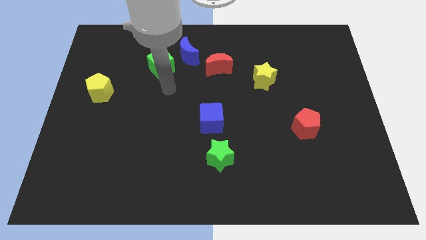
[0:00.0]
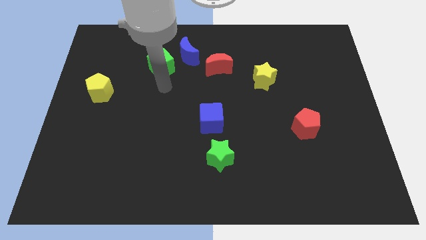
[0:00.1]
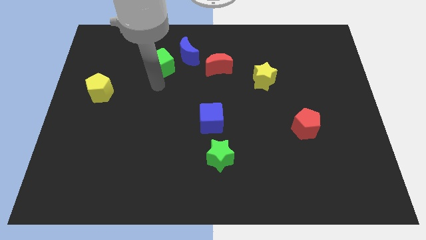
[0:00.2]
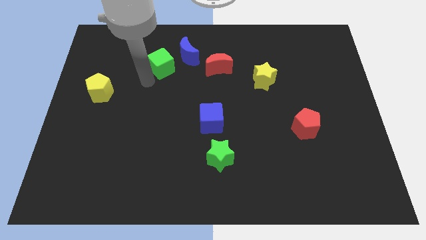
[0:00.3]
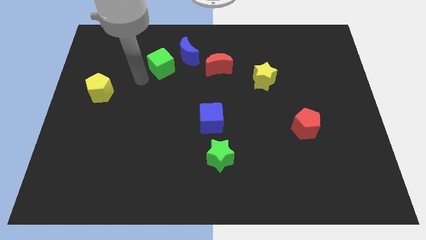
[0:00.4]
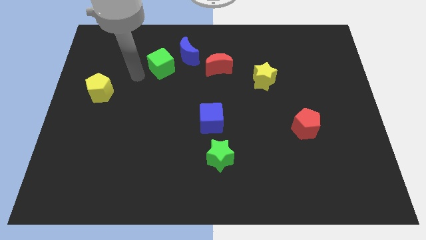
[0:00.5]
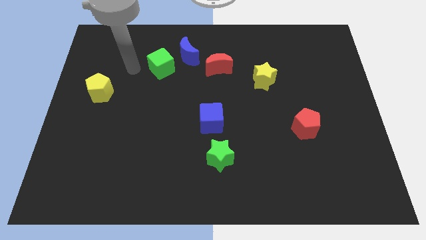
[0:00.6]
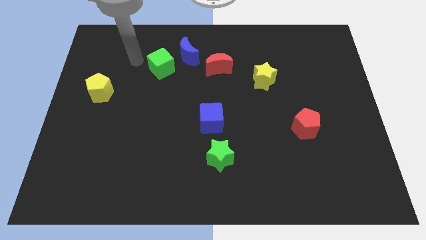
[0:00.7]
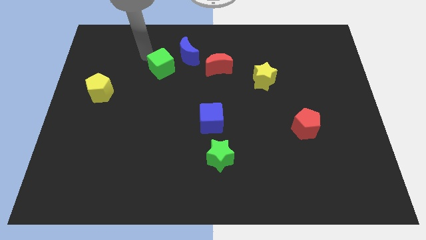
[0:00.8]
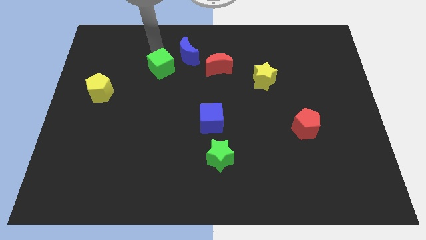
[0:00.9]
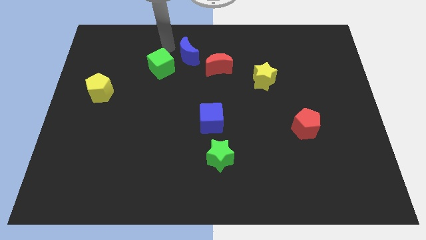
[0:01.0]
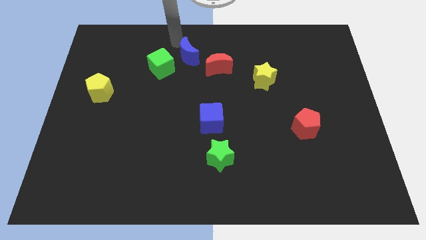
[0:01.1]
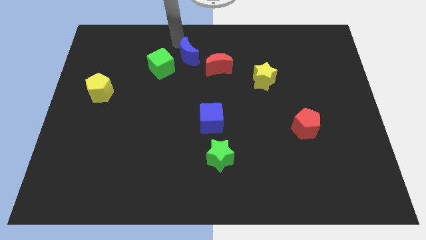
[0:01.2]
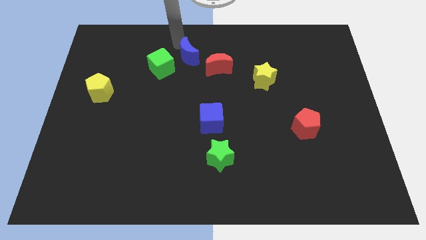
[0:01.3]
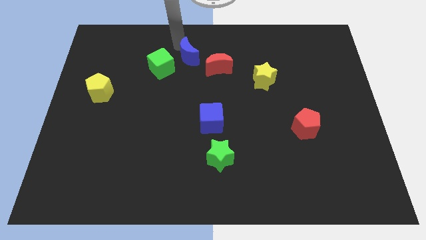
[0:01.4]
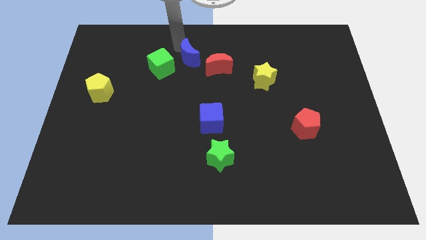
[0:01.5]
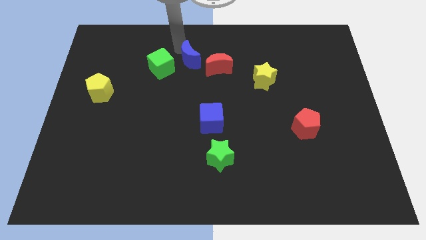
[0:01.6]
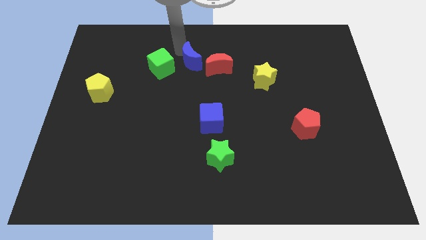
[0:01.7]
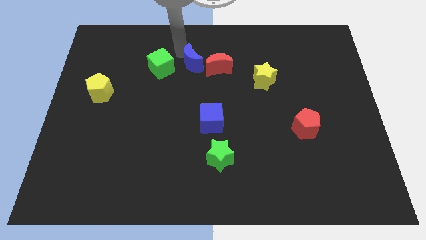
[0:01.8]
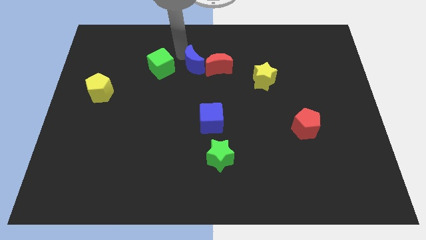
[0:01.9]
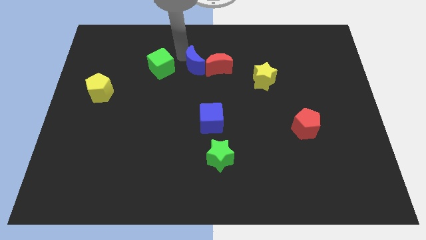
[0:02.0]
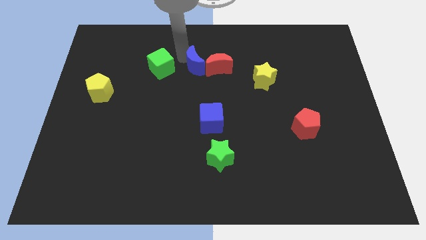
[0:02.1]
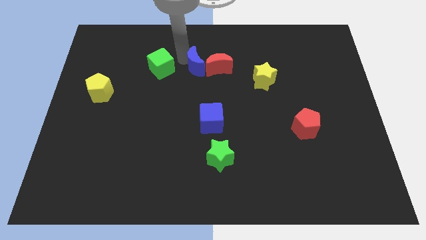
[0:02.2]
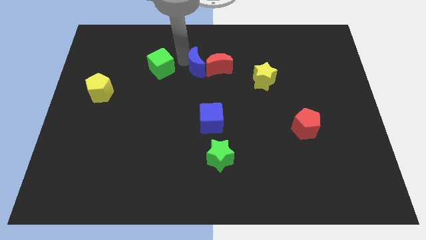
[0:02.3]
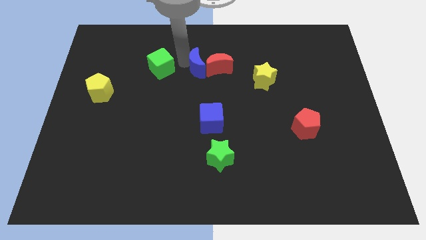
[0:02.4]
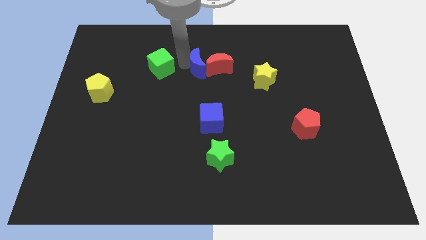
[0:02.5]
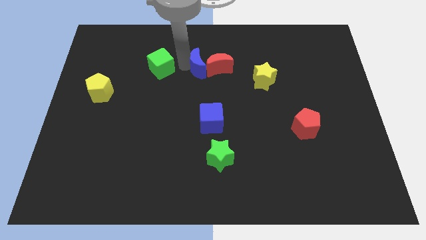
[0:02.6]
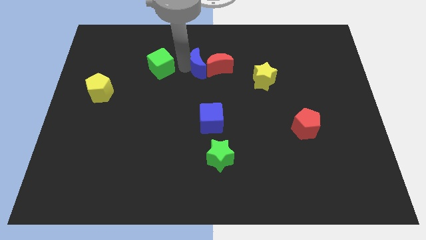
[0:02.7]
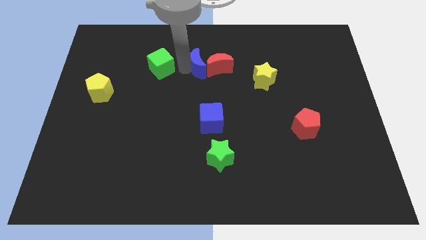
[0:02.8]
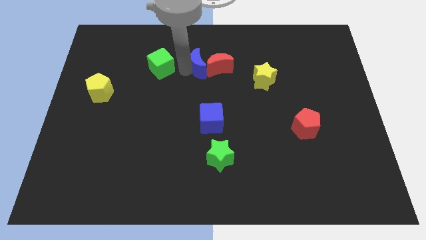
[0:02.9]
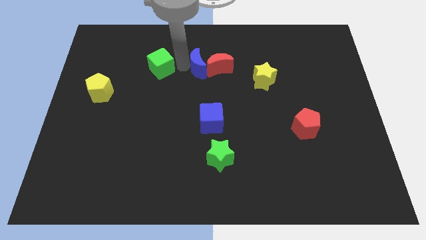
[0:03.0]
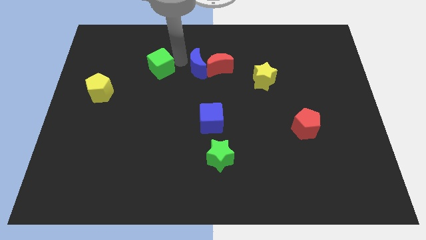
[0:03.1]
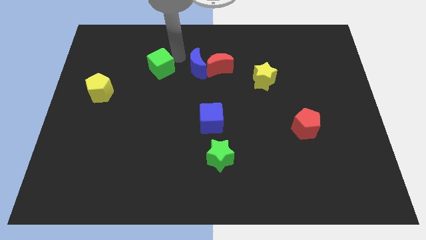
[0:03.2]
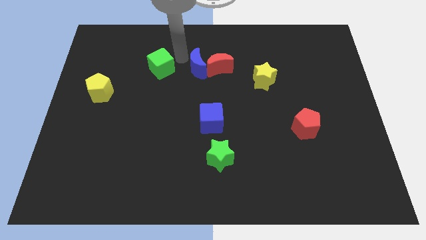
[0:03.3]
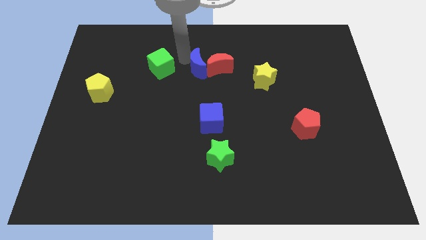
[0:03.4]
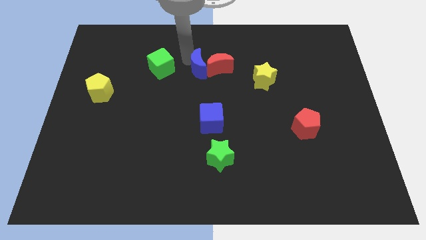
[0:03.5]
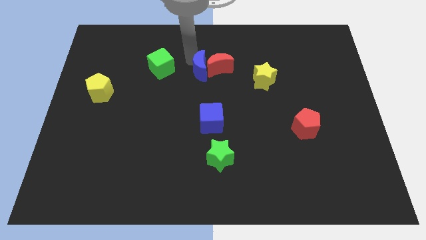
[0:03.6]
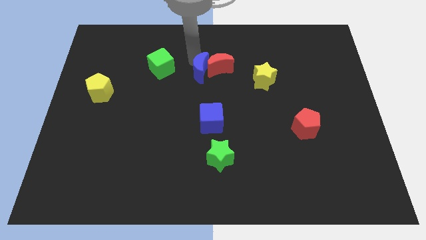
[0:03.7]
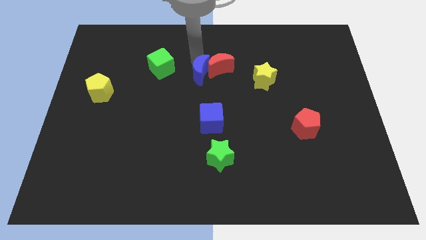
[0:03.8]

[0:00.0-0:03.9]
push the blue moon a bit down and to the right diagonally

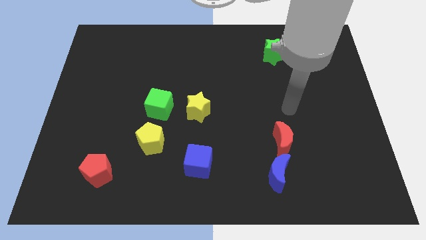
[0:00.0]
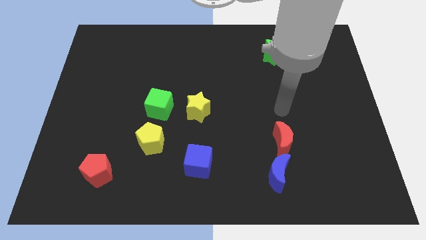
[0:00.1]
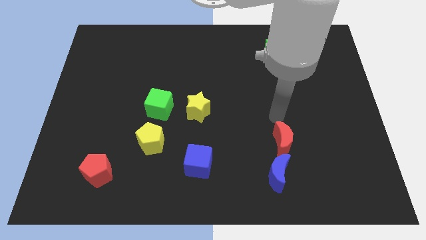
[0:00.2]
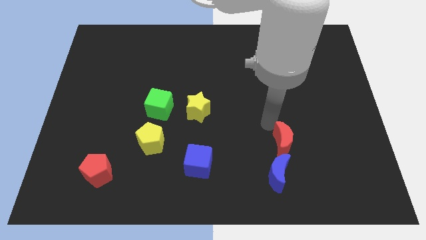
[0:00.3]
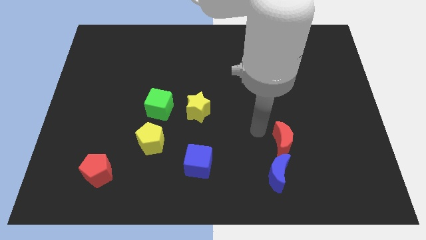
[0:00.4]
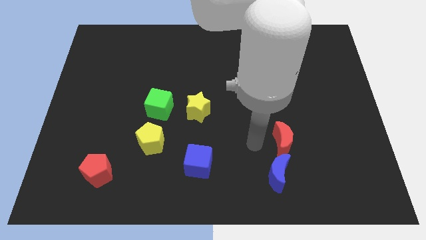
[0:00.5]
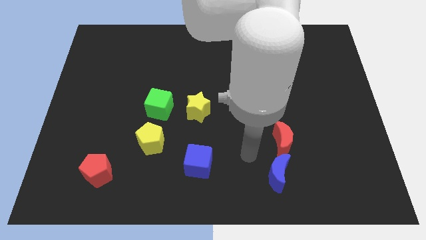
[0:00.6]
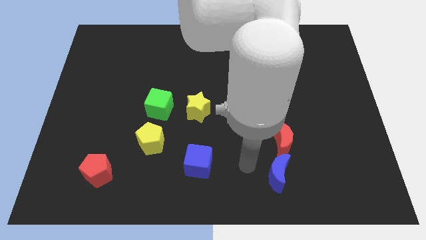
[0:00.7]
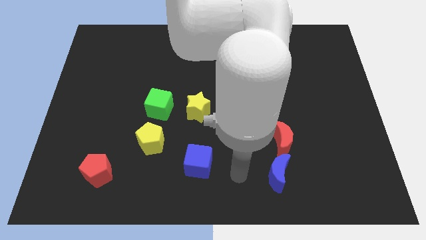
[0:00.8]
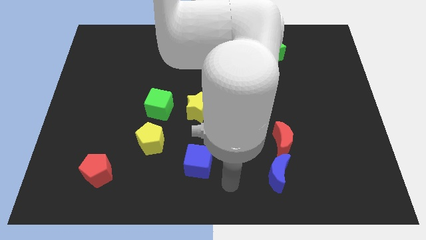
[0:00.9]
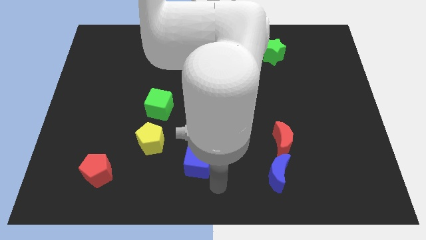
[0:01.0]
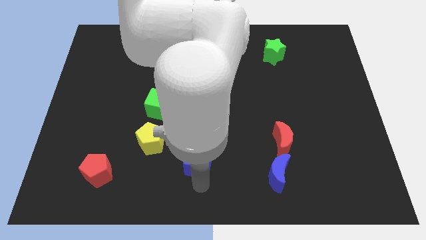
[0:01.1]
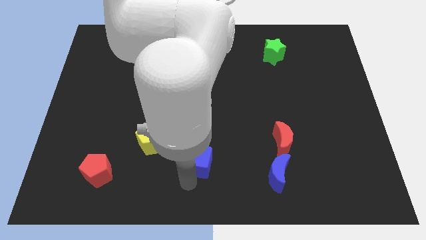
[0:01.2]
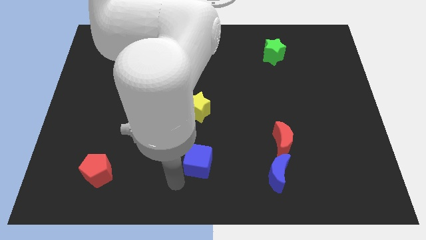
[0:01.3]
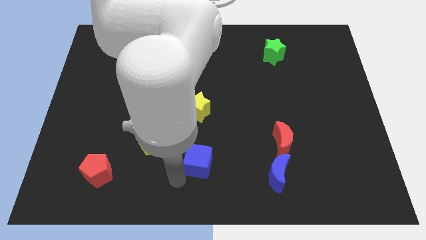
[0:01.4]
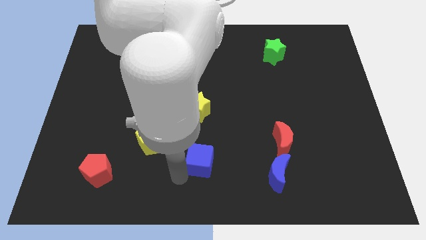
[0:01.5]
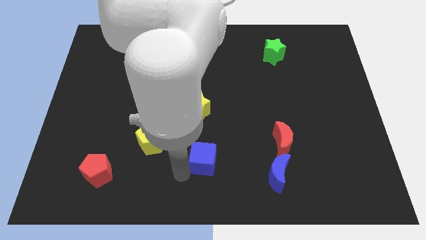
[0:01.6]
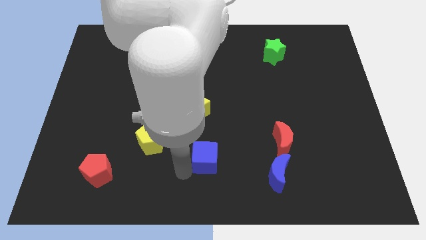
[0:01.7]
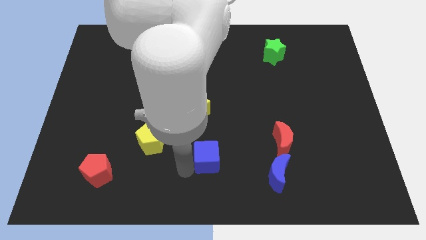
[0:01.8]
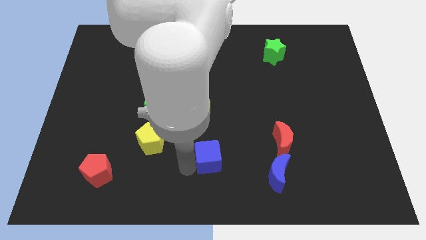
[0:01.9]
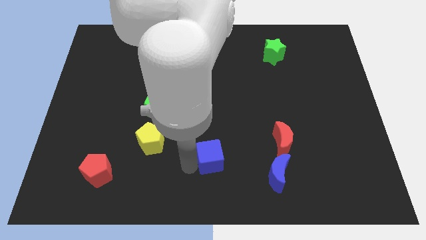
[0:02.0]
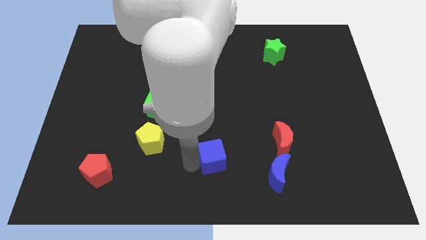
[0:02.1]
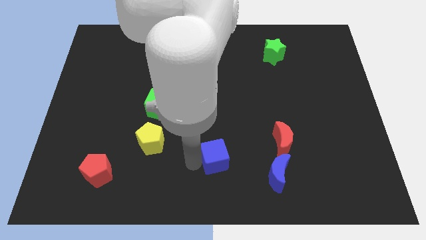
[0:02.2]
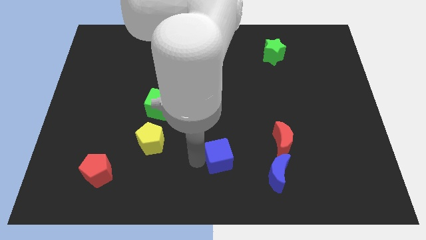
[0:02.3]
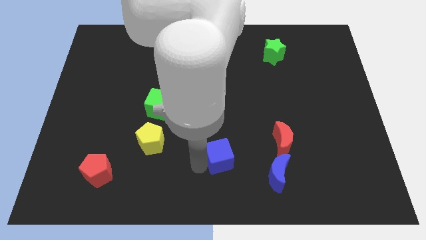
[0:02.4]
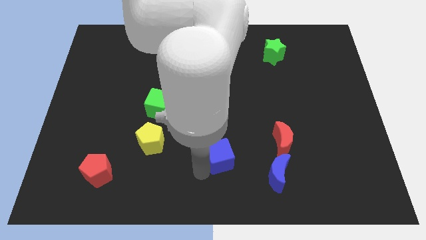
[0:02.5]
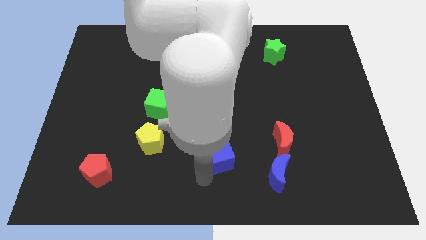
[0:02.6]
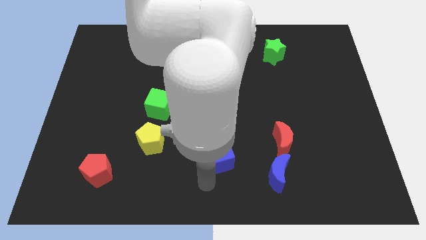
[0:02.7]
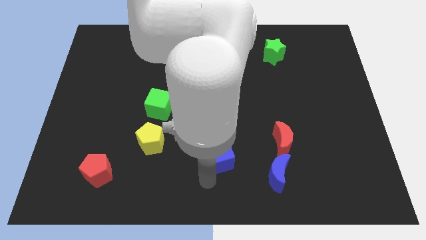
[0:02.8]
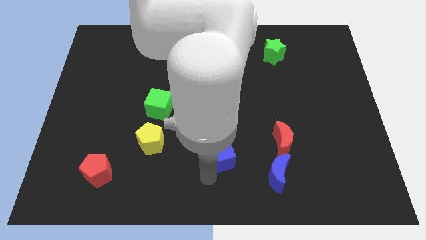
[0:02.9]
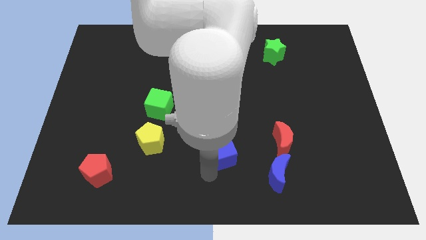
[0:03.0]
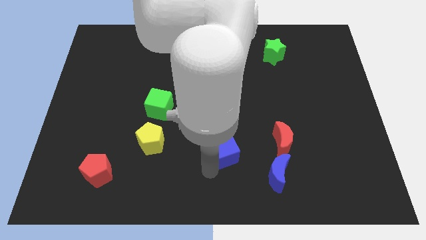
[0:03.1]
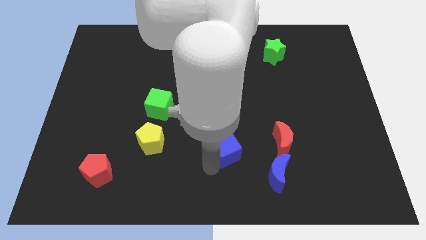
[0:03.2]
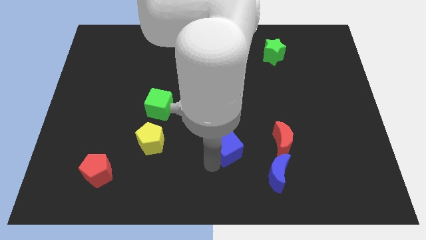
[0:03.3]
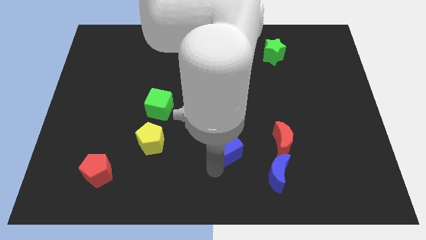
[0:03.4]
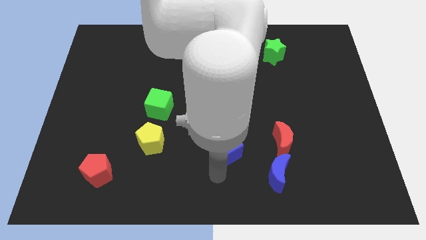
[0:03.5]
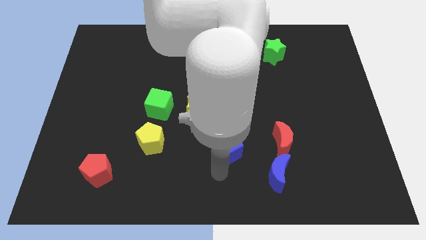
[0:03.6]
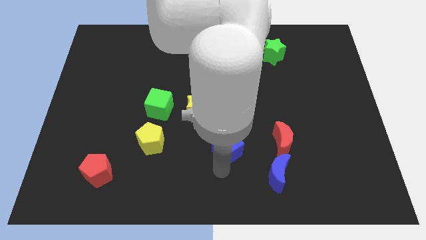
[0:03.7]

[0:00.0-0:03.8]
slide the blue cube upwards and to the right slightly
